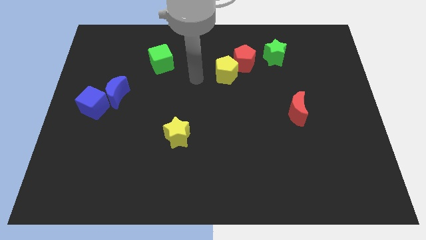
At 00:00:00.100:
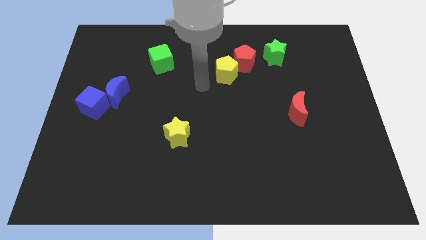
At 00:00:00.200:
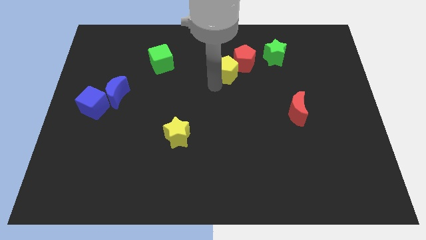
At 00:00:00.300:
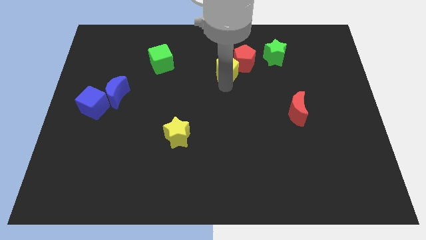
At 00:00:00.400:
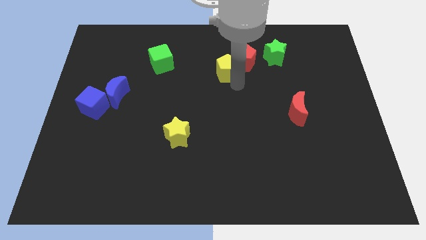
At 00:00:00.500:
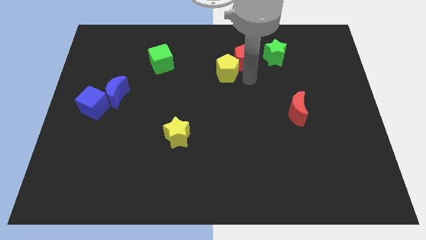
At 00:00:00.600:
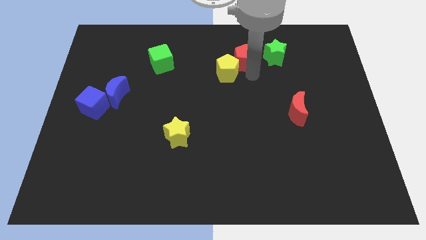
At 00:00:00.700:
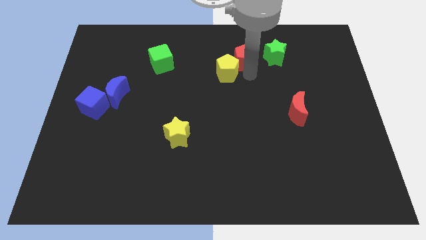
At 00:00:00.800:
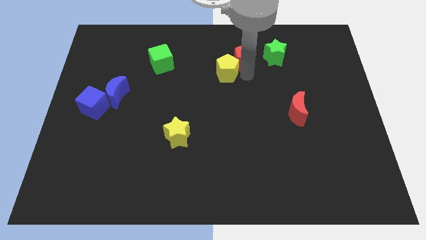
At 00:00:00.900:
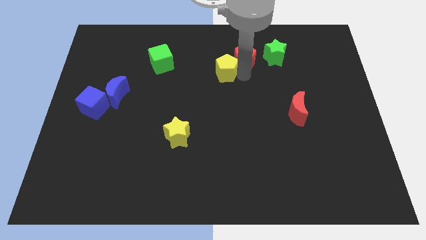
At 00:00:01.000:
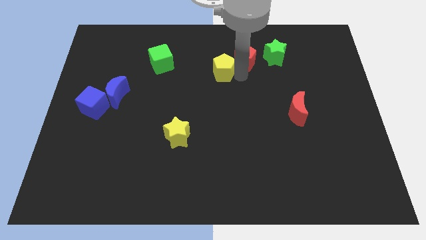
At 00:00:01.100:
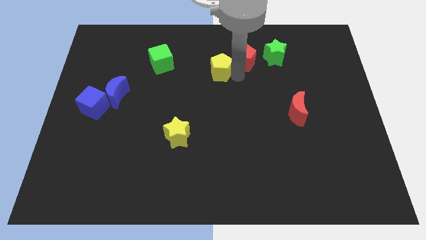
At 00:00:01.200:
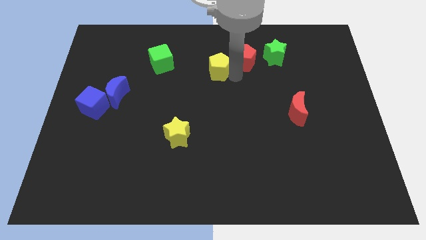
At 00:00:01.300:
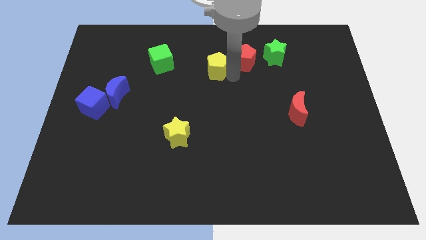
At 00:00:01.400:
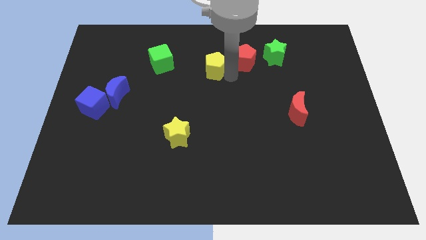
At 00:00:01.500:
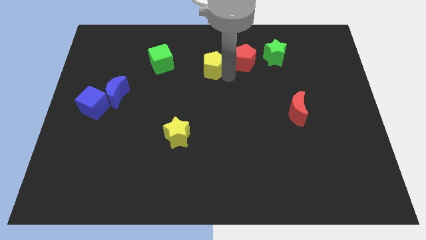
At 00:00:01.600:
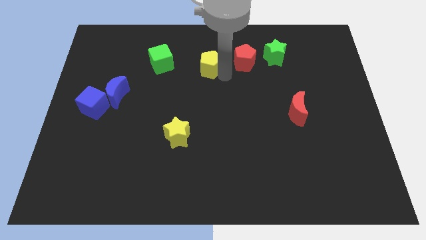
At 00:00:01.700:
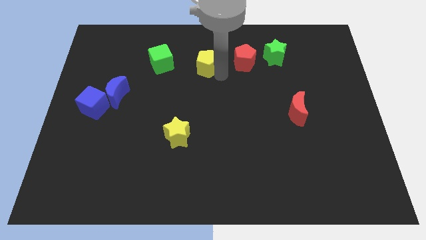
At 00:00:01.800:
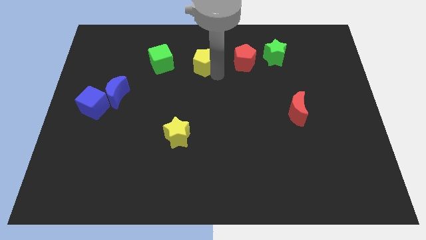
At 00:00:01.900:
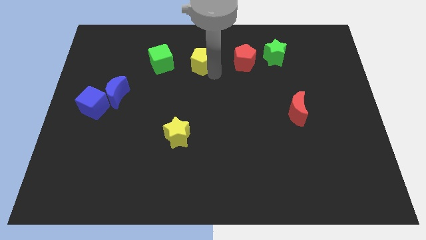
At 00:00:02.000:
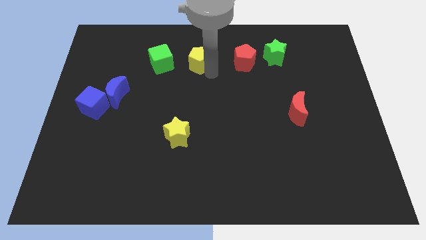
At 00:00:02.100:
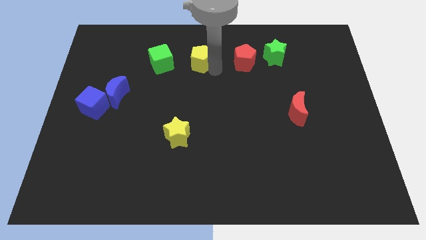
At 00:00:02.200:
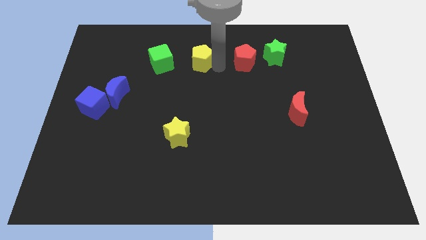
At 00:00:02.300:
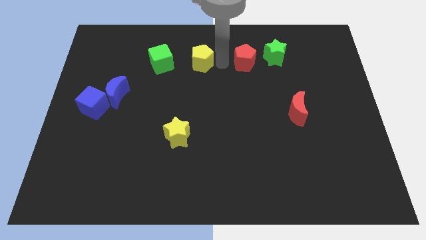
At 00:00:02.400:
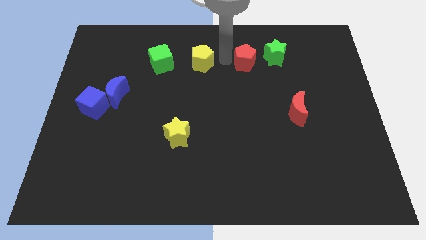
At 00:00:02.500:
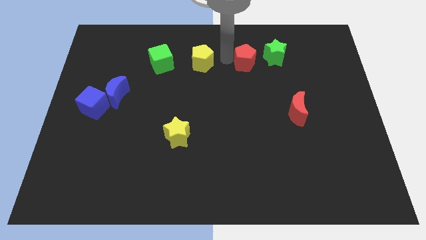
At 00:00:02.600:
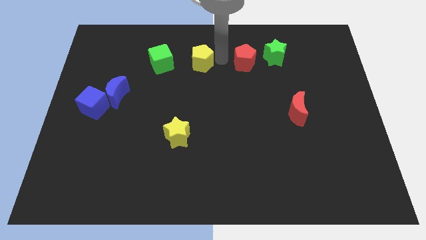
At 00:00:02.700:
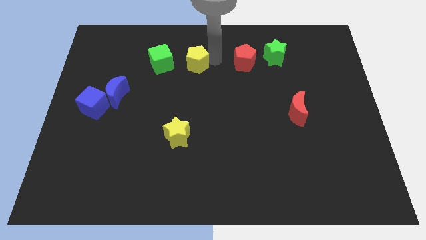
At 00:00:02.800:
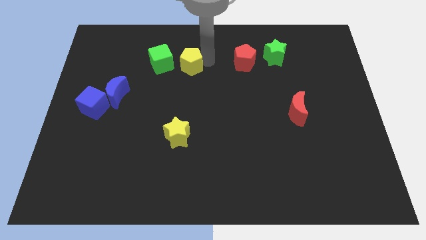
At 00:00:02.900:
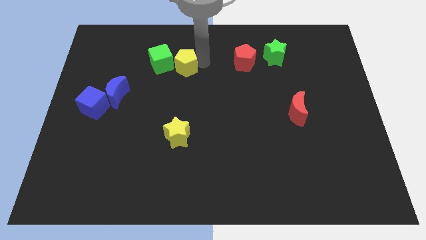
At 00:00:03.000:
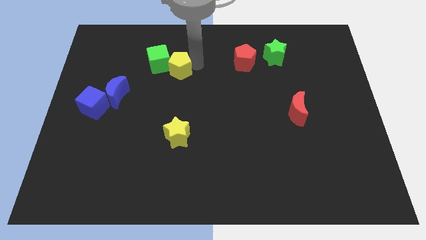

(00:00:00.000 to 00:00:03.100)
push the yellow pentagon close to the green cube

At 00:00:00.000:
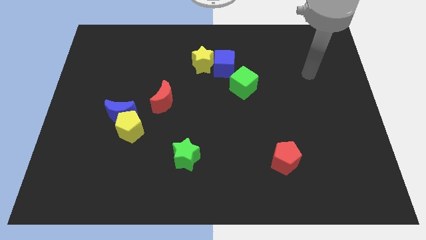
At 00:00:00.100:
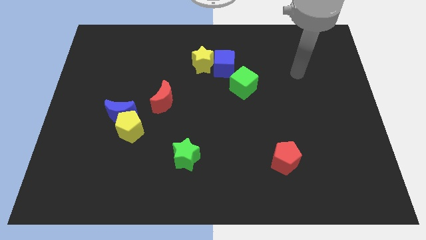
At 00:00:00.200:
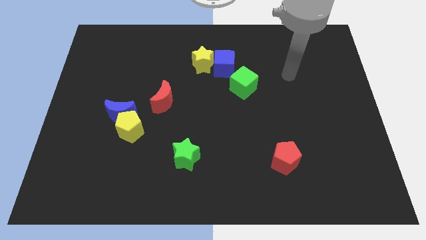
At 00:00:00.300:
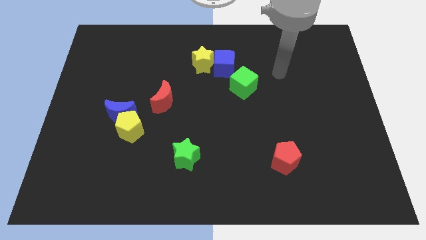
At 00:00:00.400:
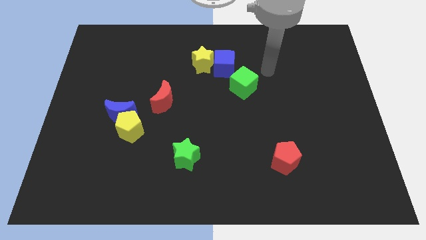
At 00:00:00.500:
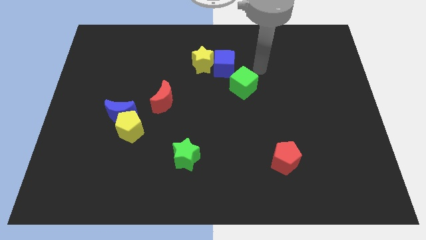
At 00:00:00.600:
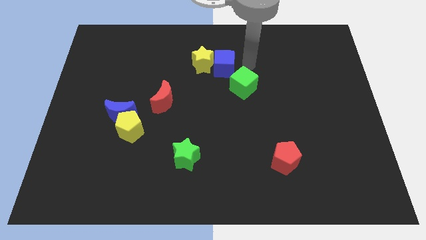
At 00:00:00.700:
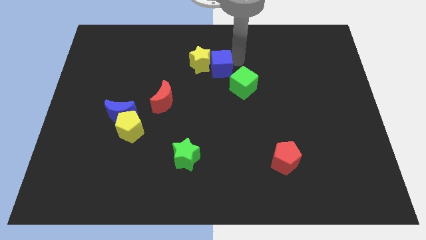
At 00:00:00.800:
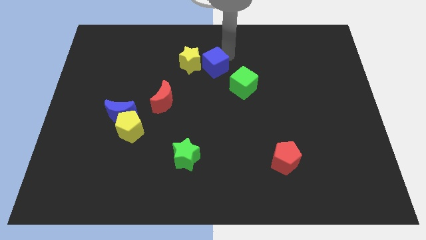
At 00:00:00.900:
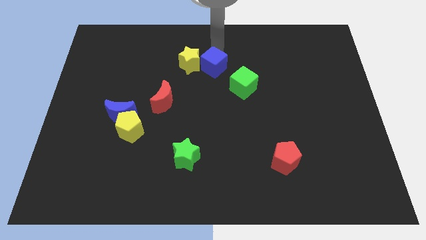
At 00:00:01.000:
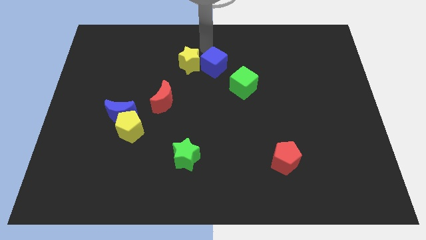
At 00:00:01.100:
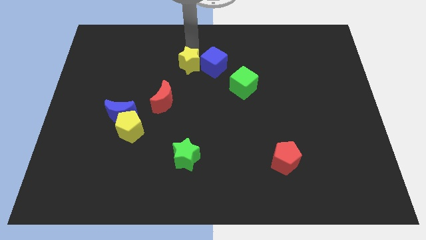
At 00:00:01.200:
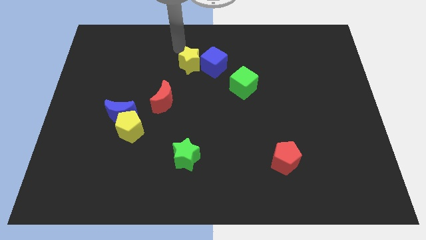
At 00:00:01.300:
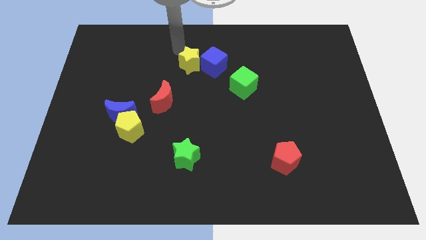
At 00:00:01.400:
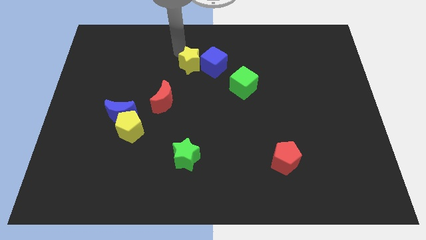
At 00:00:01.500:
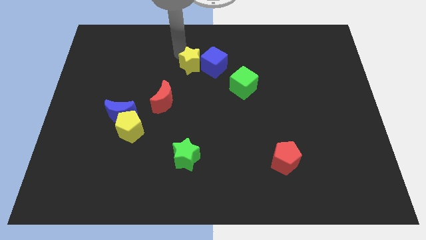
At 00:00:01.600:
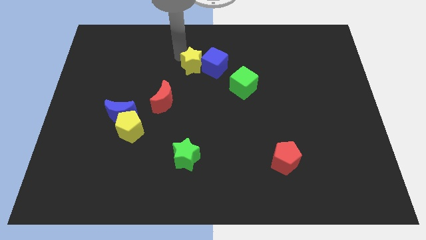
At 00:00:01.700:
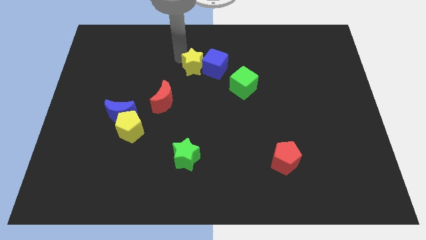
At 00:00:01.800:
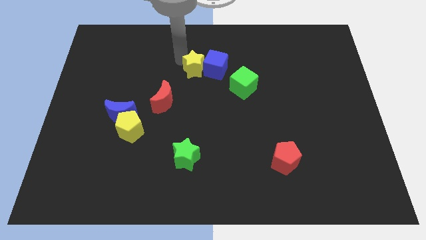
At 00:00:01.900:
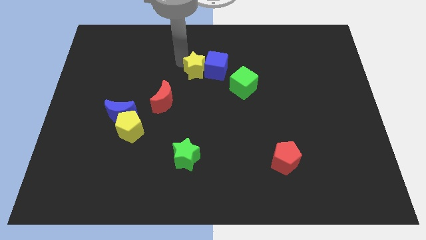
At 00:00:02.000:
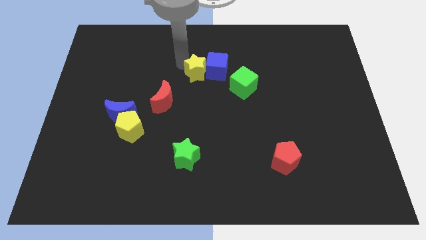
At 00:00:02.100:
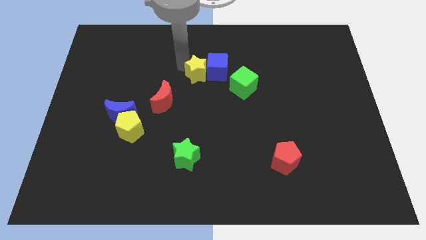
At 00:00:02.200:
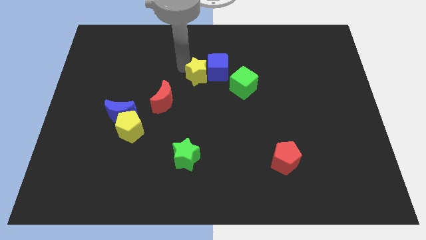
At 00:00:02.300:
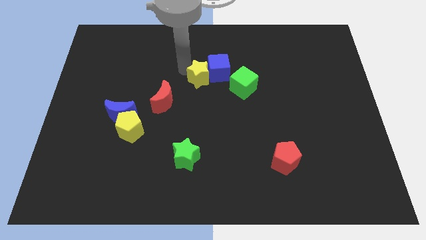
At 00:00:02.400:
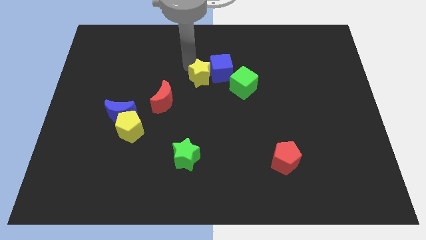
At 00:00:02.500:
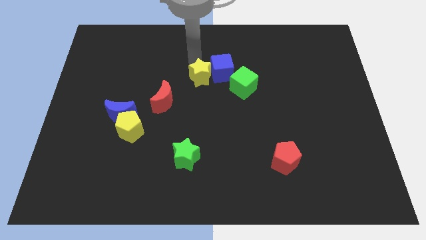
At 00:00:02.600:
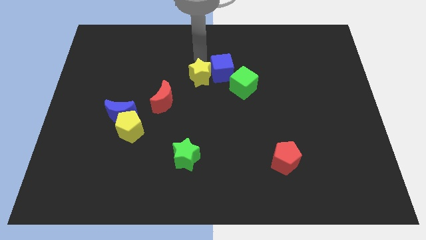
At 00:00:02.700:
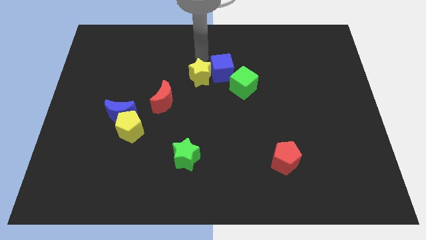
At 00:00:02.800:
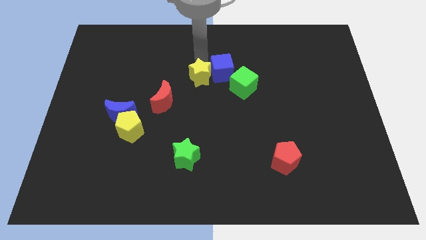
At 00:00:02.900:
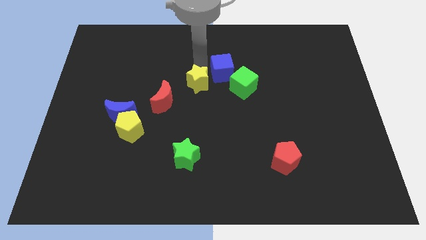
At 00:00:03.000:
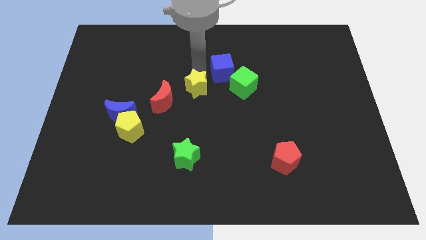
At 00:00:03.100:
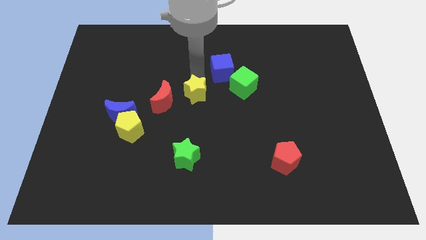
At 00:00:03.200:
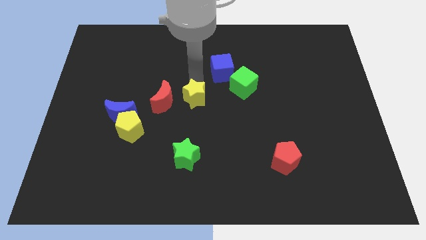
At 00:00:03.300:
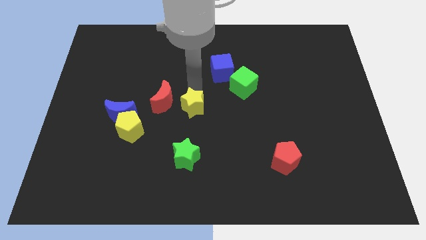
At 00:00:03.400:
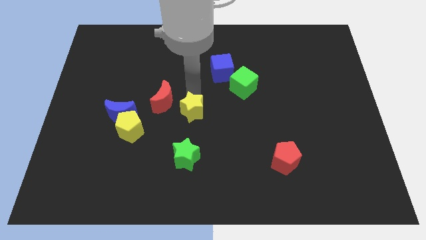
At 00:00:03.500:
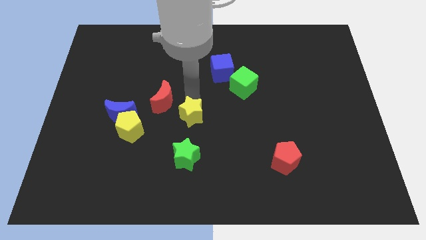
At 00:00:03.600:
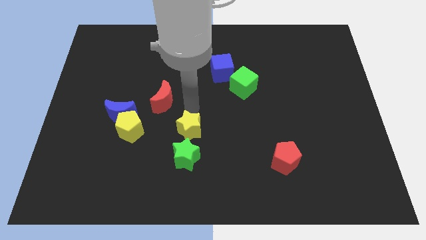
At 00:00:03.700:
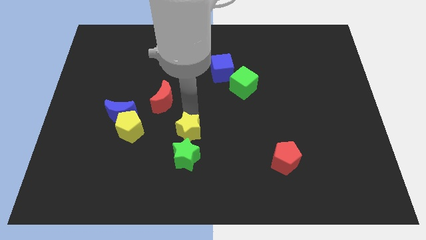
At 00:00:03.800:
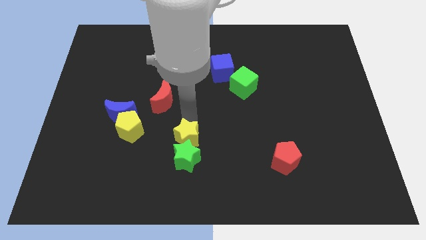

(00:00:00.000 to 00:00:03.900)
move the yellow star close to the green star

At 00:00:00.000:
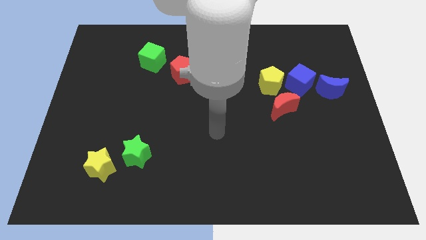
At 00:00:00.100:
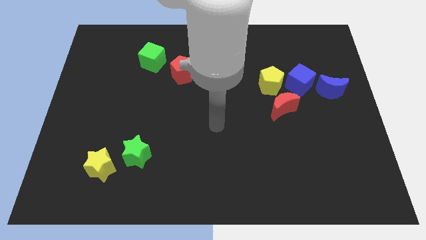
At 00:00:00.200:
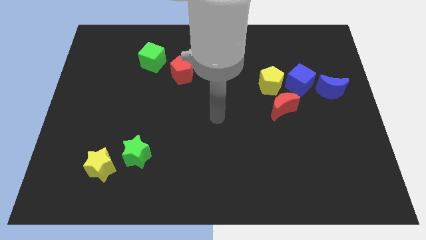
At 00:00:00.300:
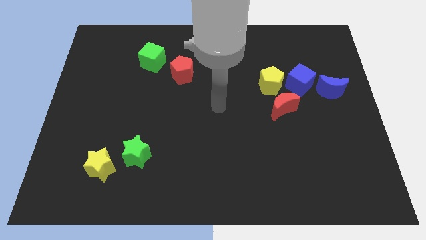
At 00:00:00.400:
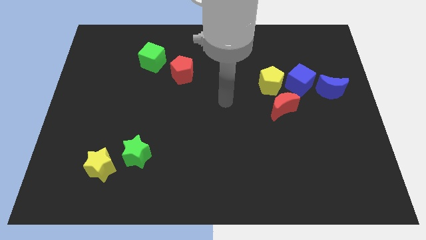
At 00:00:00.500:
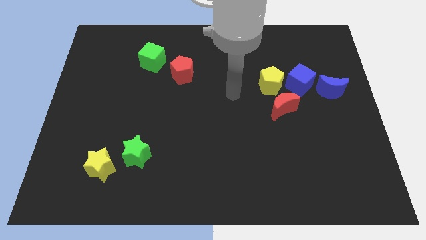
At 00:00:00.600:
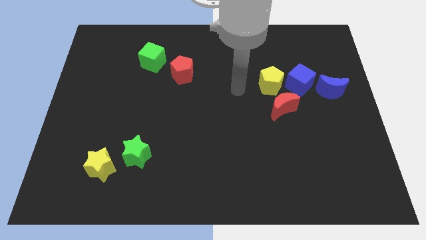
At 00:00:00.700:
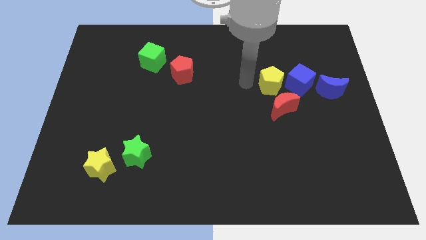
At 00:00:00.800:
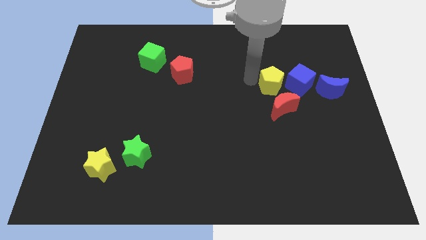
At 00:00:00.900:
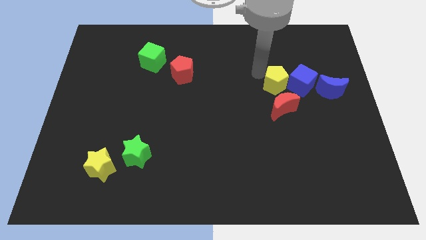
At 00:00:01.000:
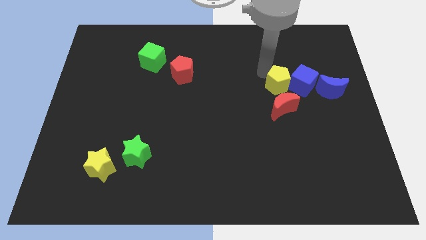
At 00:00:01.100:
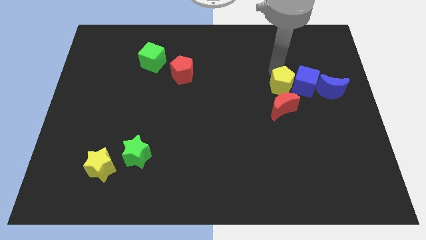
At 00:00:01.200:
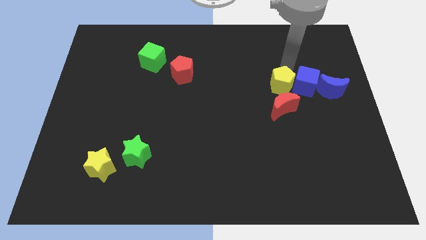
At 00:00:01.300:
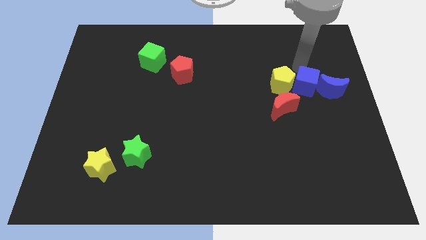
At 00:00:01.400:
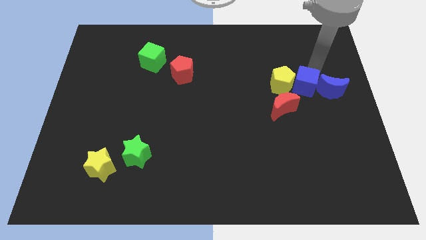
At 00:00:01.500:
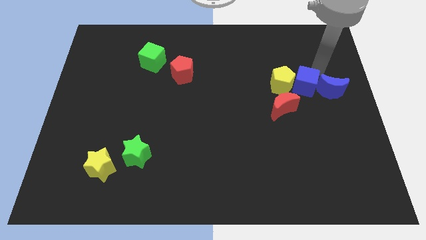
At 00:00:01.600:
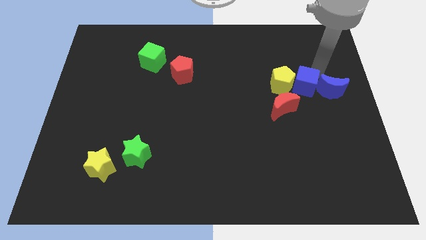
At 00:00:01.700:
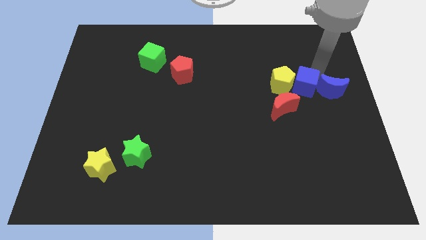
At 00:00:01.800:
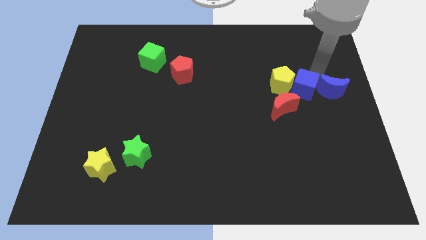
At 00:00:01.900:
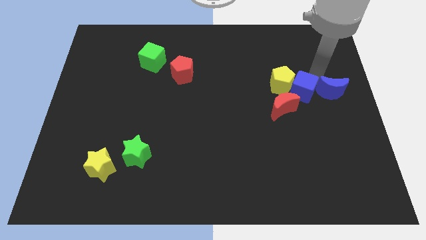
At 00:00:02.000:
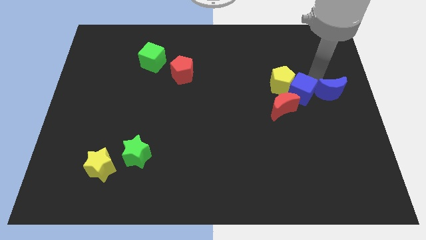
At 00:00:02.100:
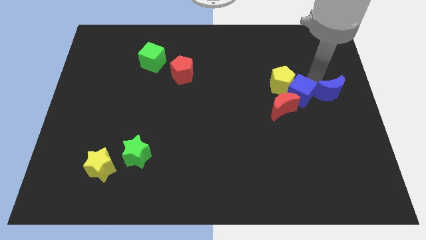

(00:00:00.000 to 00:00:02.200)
put the blue cube close to the red moon
